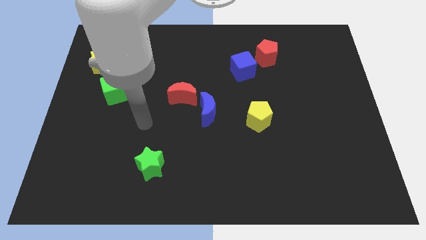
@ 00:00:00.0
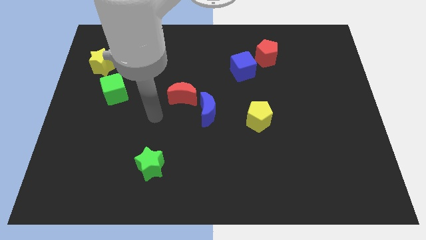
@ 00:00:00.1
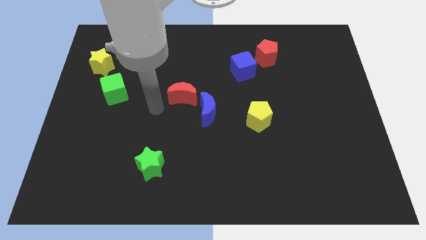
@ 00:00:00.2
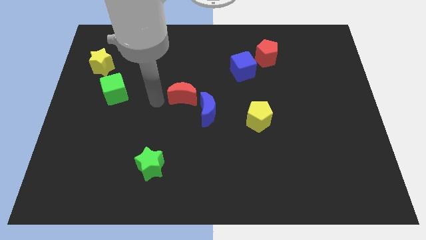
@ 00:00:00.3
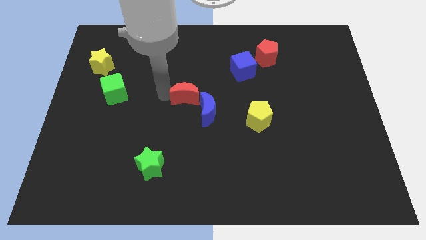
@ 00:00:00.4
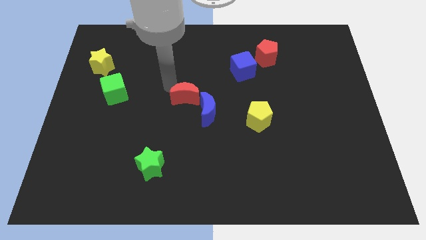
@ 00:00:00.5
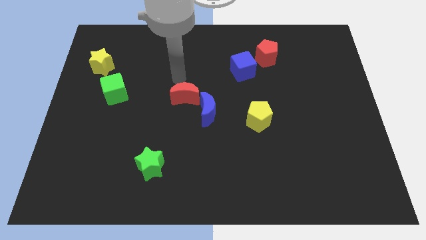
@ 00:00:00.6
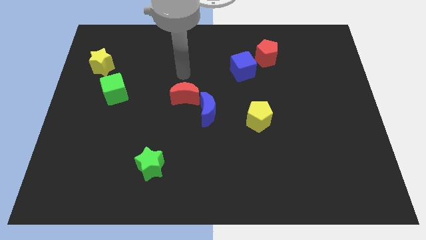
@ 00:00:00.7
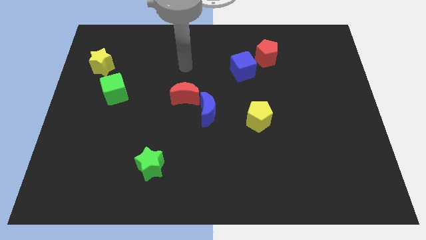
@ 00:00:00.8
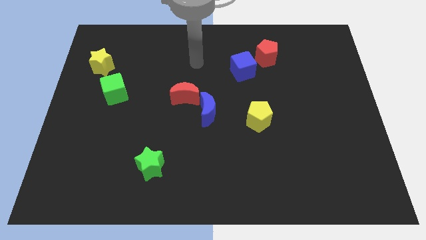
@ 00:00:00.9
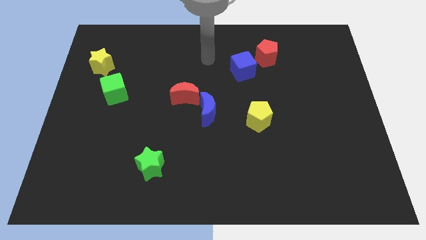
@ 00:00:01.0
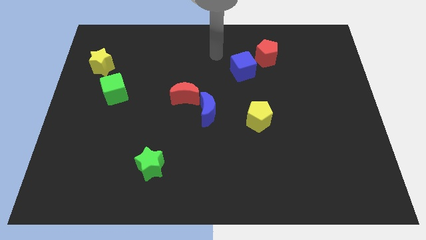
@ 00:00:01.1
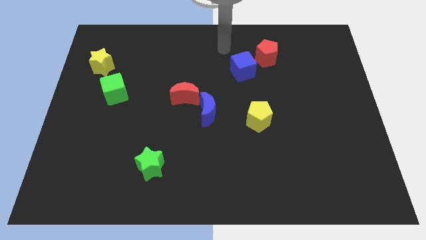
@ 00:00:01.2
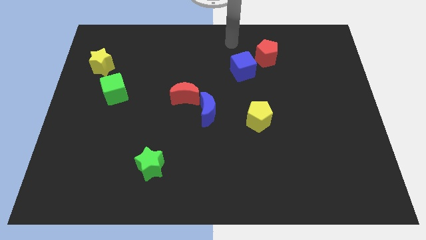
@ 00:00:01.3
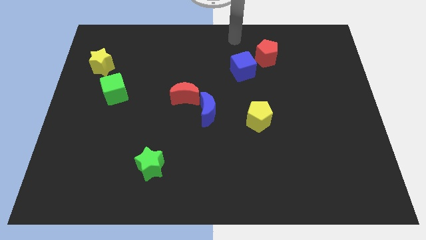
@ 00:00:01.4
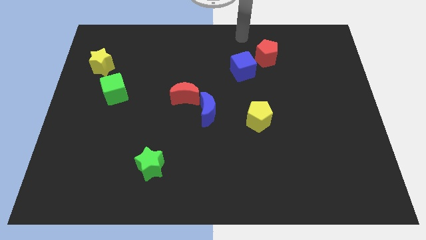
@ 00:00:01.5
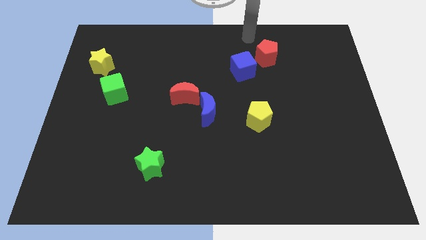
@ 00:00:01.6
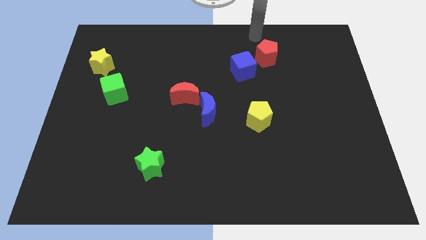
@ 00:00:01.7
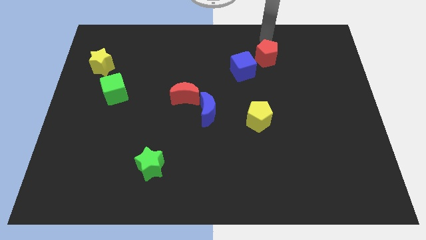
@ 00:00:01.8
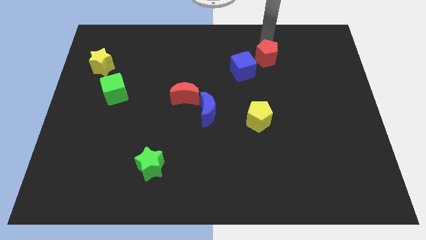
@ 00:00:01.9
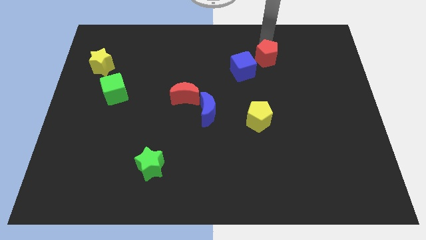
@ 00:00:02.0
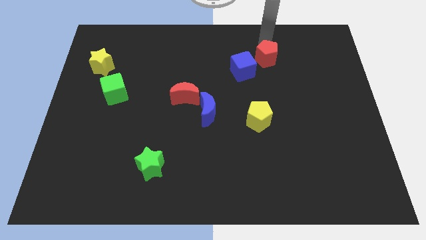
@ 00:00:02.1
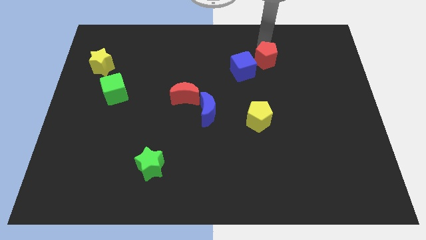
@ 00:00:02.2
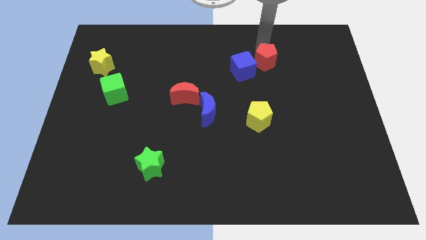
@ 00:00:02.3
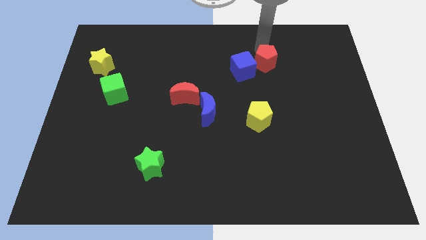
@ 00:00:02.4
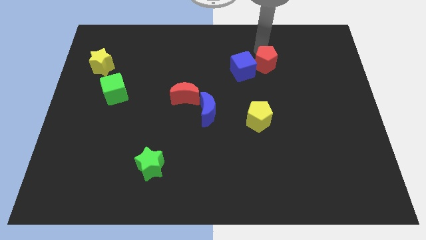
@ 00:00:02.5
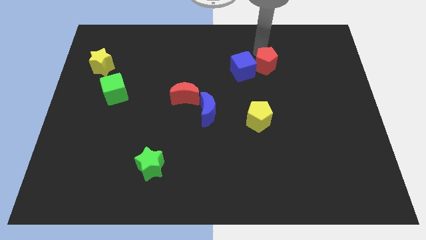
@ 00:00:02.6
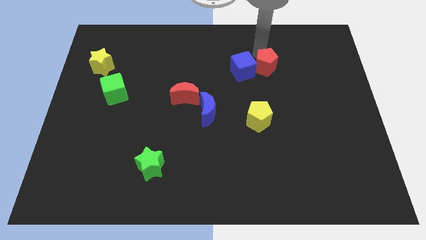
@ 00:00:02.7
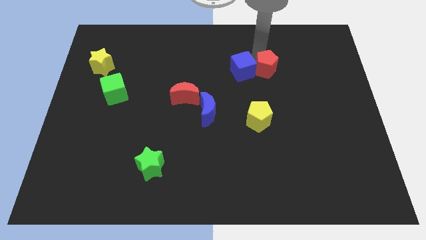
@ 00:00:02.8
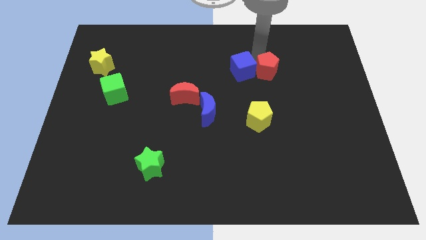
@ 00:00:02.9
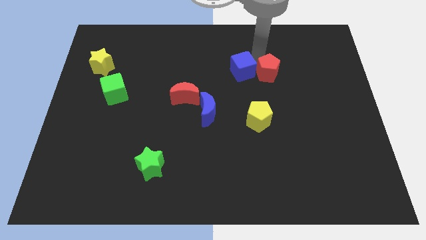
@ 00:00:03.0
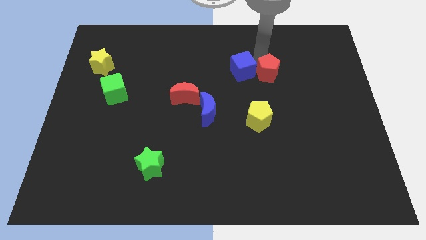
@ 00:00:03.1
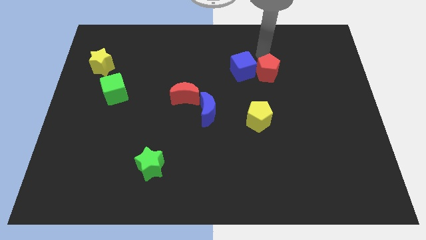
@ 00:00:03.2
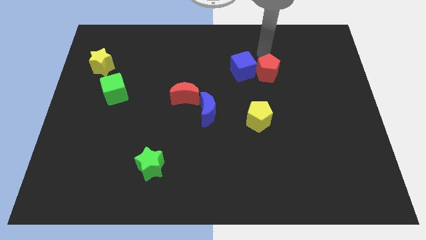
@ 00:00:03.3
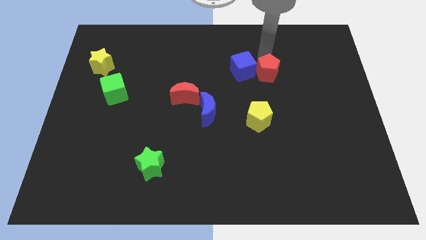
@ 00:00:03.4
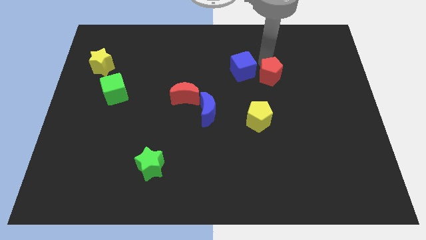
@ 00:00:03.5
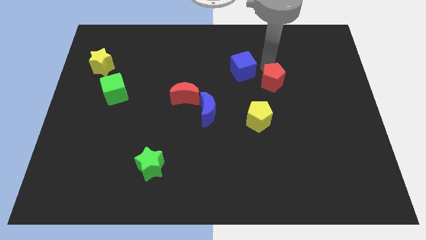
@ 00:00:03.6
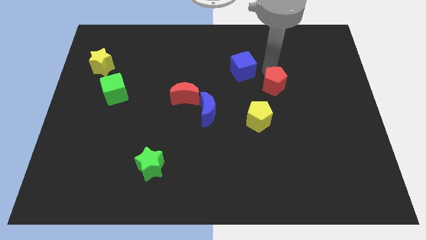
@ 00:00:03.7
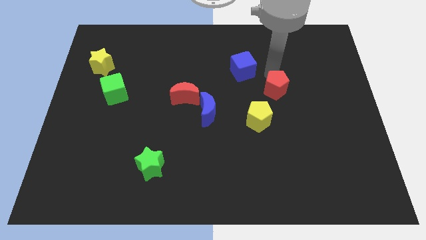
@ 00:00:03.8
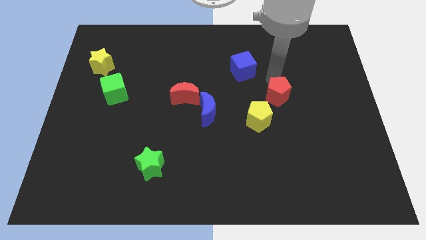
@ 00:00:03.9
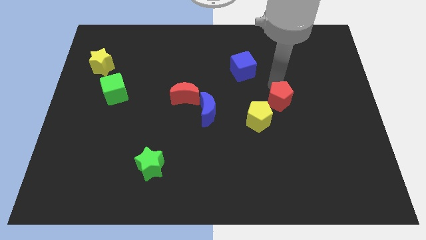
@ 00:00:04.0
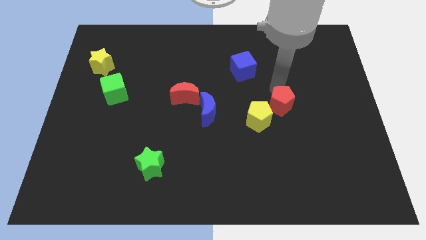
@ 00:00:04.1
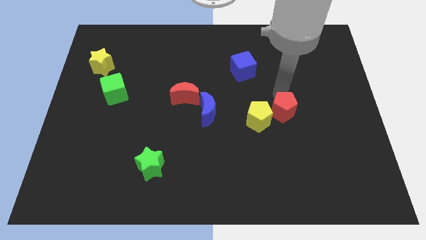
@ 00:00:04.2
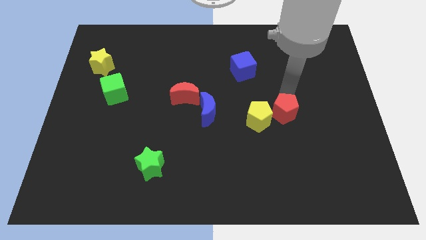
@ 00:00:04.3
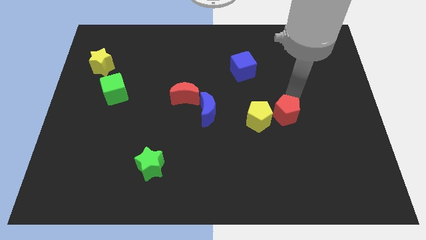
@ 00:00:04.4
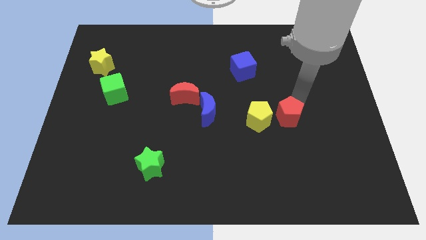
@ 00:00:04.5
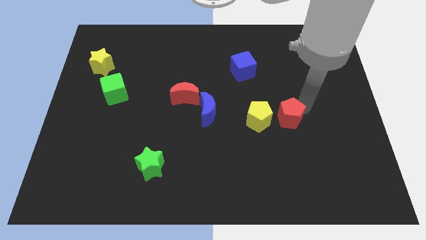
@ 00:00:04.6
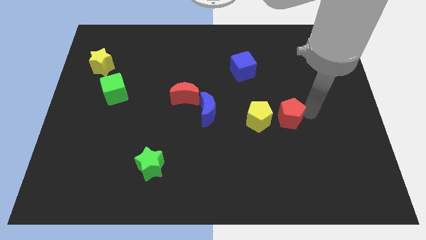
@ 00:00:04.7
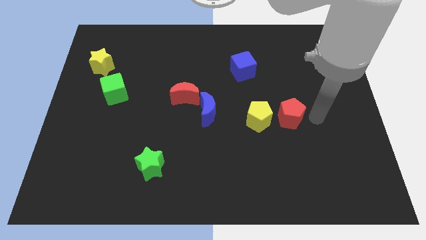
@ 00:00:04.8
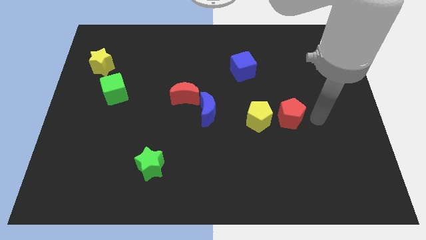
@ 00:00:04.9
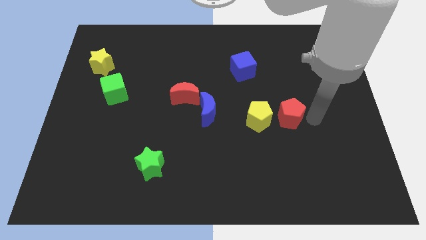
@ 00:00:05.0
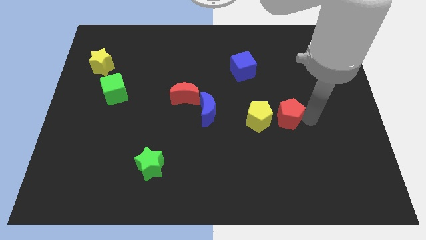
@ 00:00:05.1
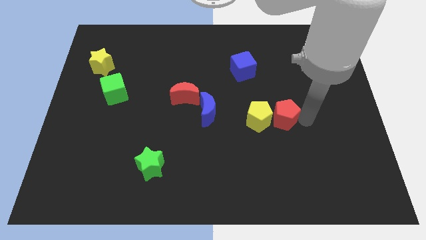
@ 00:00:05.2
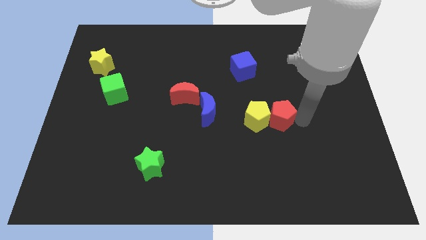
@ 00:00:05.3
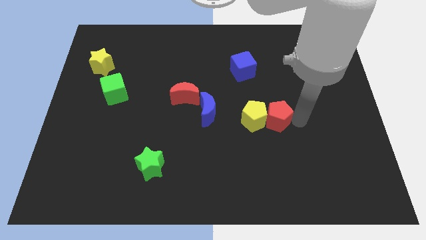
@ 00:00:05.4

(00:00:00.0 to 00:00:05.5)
slide the red pentagon just right of the blue moon

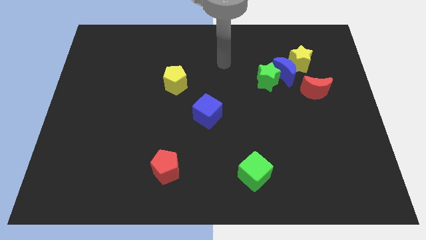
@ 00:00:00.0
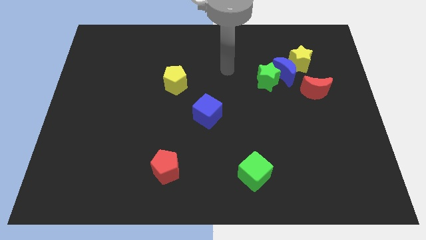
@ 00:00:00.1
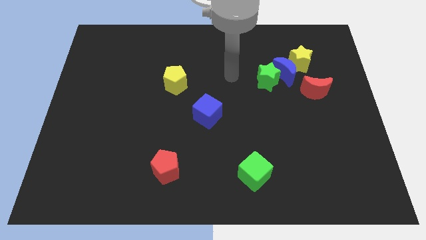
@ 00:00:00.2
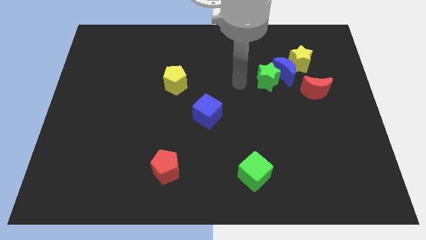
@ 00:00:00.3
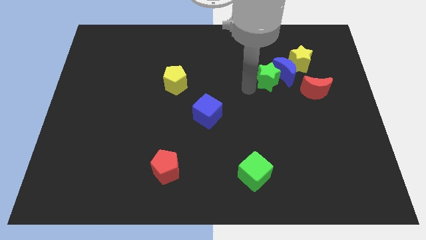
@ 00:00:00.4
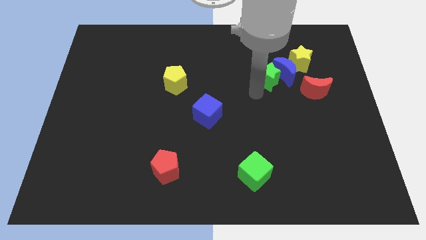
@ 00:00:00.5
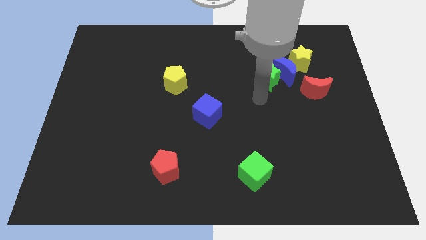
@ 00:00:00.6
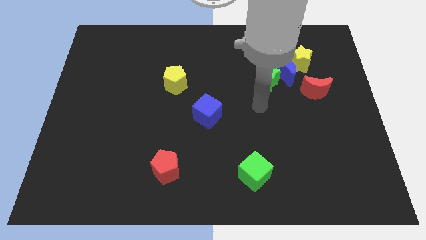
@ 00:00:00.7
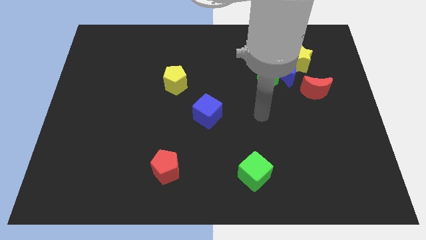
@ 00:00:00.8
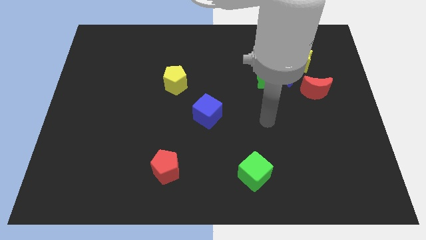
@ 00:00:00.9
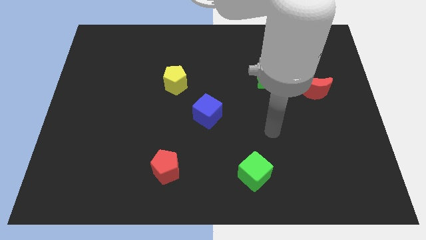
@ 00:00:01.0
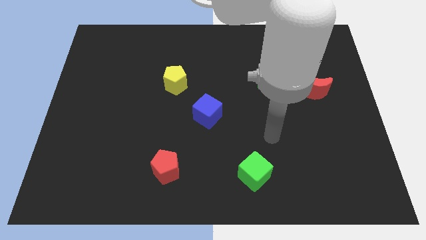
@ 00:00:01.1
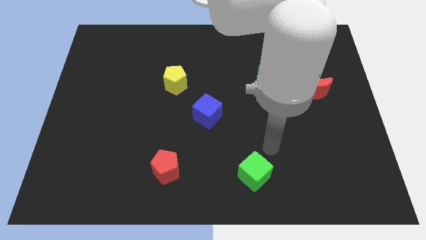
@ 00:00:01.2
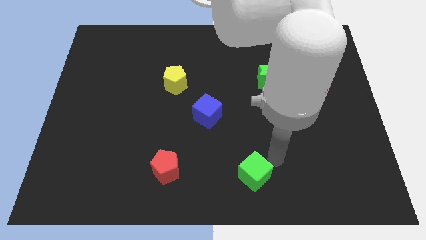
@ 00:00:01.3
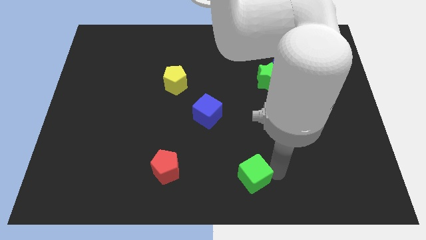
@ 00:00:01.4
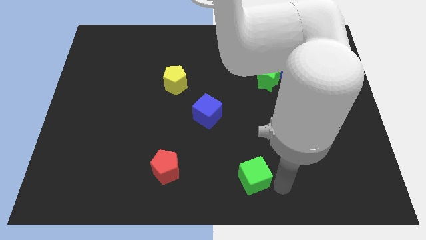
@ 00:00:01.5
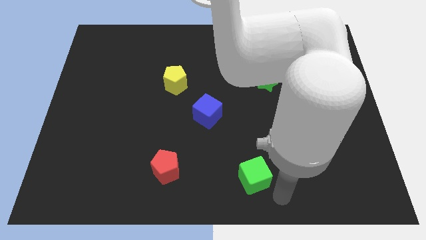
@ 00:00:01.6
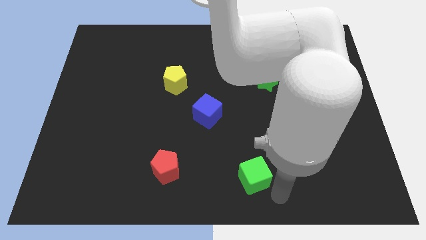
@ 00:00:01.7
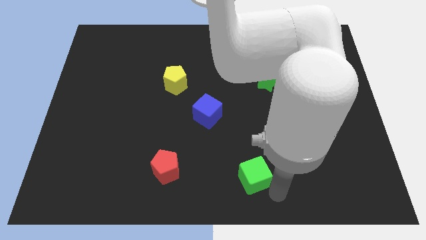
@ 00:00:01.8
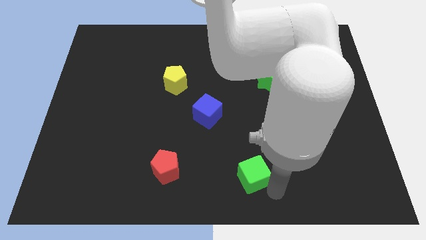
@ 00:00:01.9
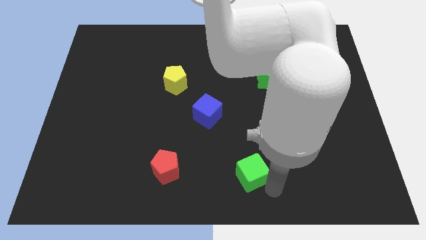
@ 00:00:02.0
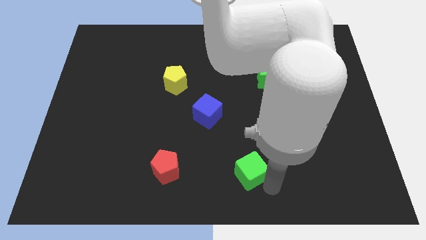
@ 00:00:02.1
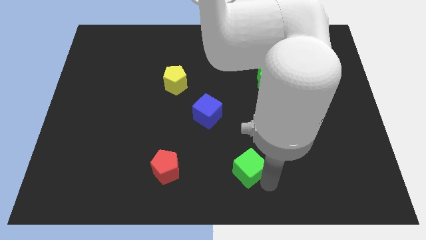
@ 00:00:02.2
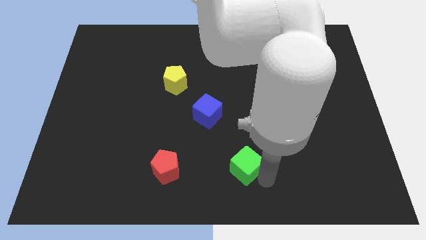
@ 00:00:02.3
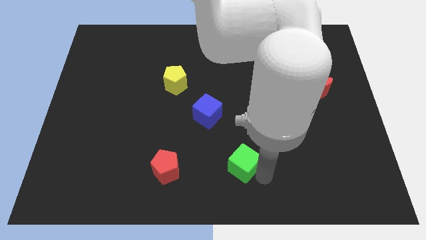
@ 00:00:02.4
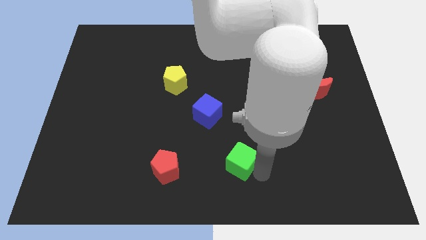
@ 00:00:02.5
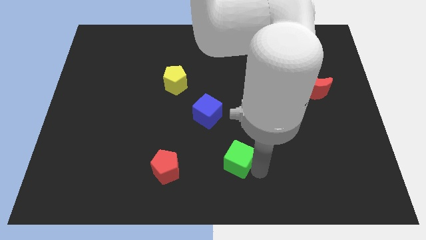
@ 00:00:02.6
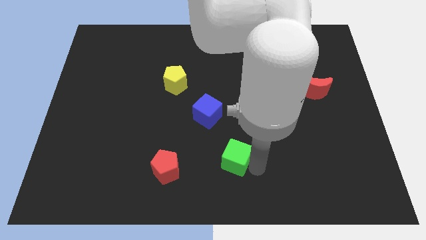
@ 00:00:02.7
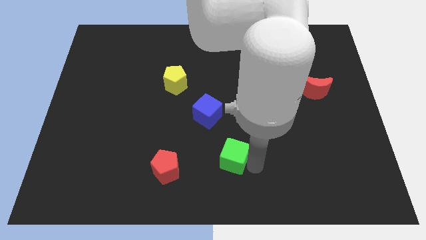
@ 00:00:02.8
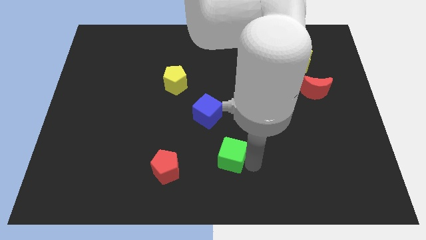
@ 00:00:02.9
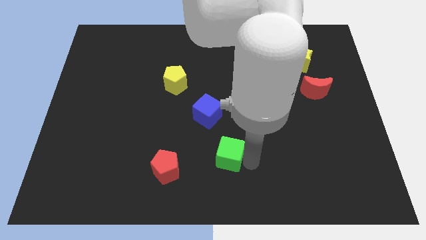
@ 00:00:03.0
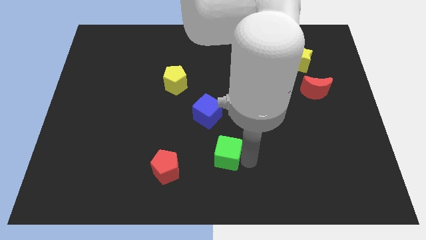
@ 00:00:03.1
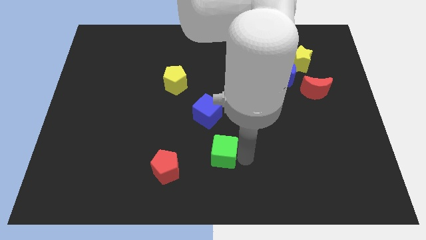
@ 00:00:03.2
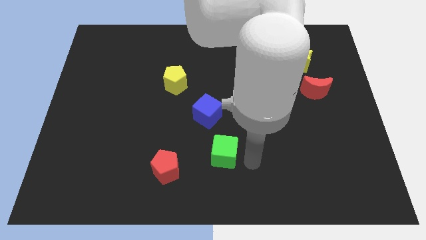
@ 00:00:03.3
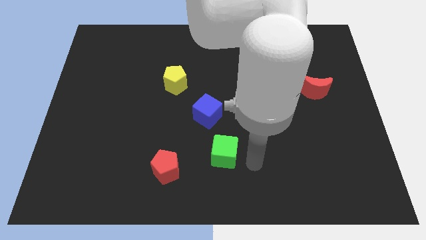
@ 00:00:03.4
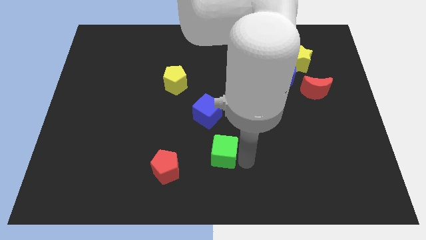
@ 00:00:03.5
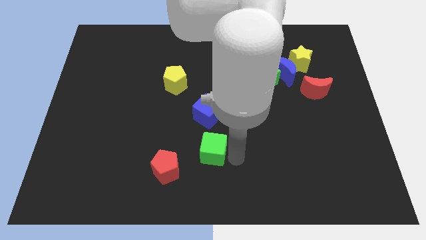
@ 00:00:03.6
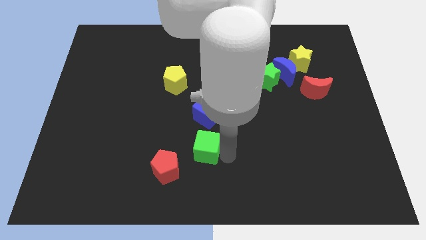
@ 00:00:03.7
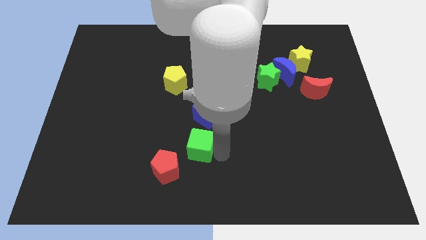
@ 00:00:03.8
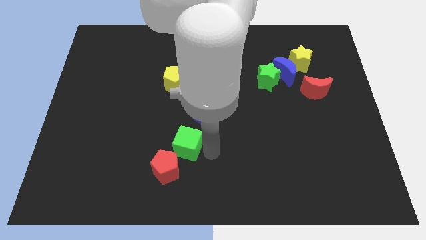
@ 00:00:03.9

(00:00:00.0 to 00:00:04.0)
put the green cube above the red pentagon
